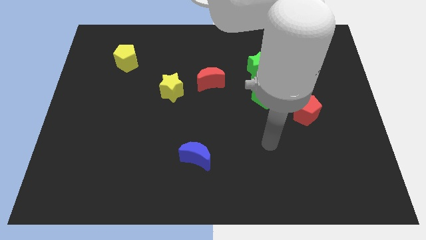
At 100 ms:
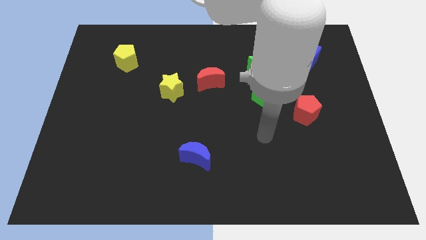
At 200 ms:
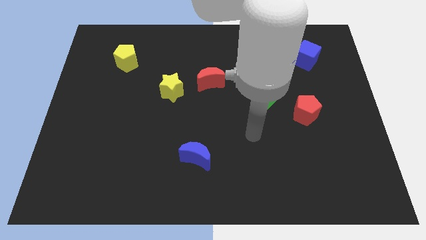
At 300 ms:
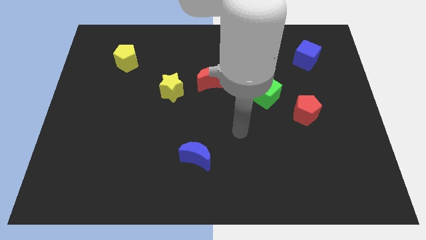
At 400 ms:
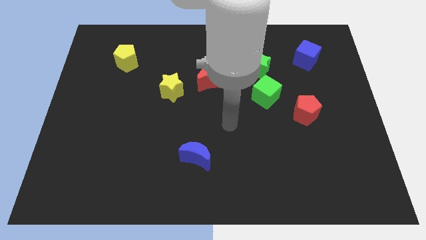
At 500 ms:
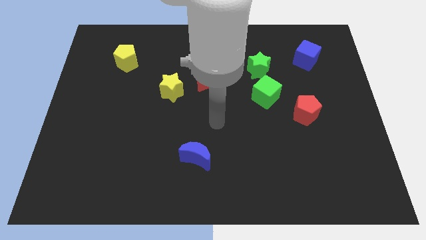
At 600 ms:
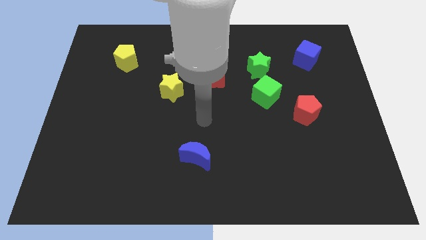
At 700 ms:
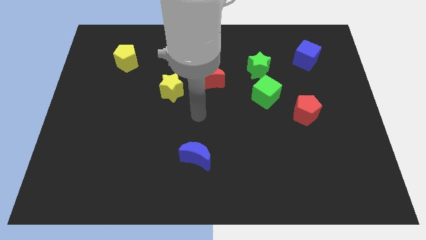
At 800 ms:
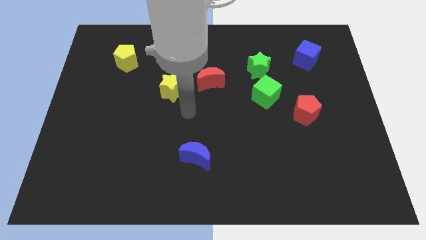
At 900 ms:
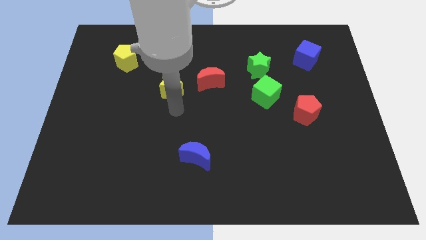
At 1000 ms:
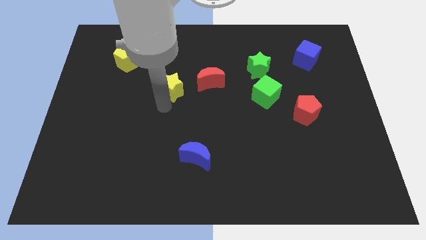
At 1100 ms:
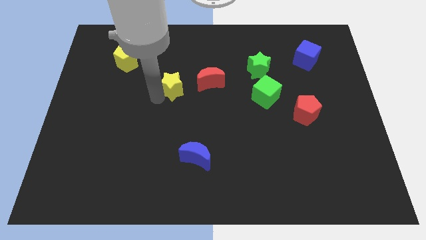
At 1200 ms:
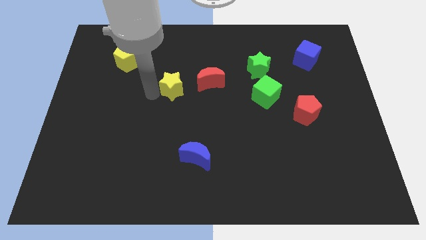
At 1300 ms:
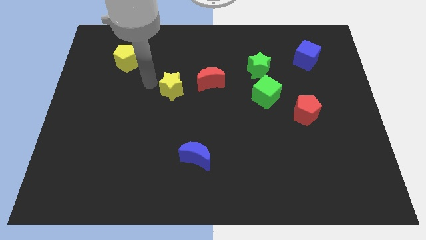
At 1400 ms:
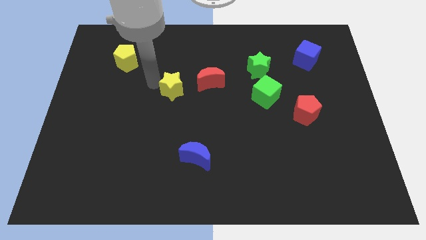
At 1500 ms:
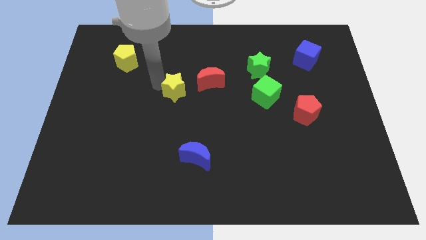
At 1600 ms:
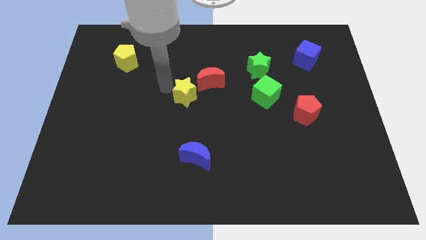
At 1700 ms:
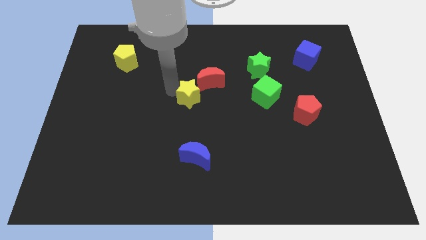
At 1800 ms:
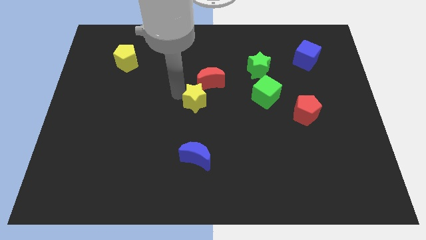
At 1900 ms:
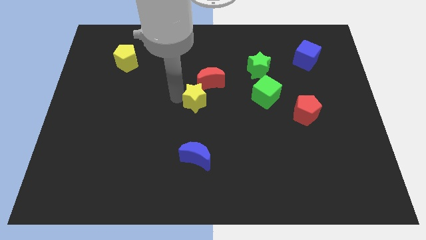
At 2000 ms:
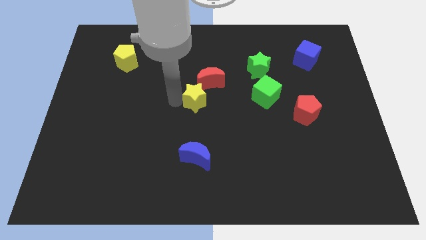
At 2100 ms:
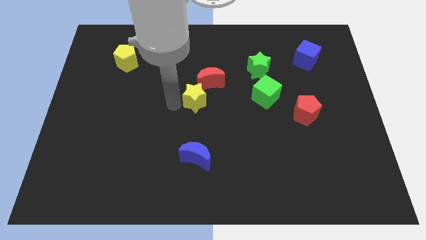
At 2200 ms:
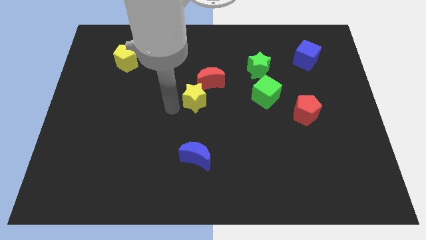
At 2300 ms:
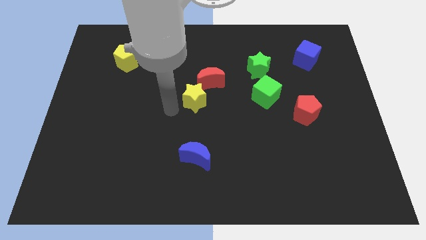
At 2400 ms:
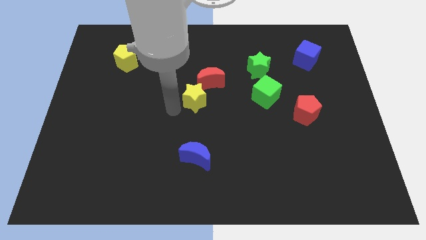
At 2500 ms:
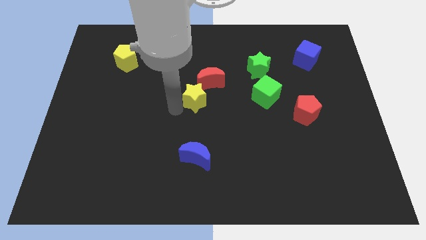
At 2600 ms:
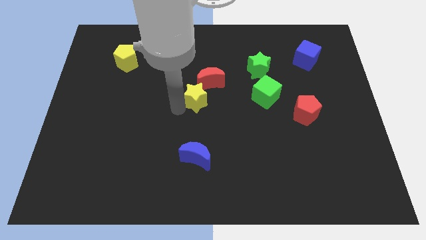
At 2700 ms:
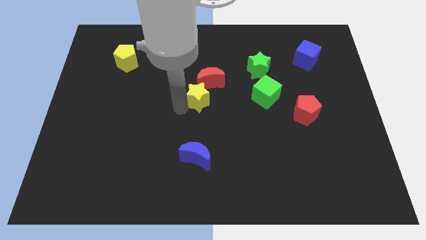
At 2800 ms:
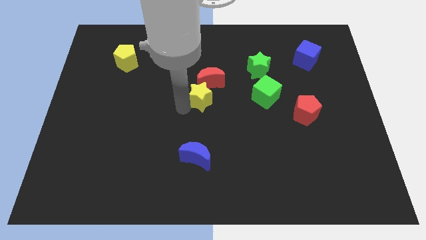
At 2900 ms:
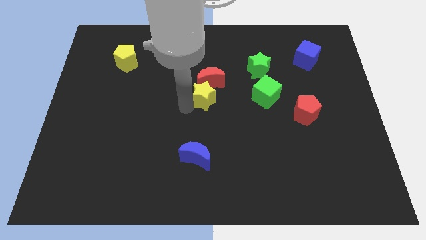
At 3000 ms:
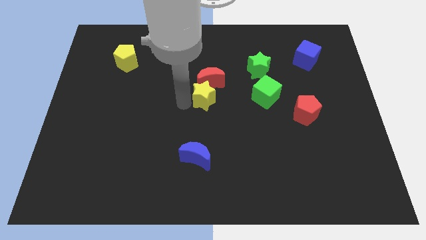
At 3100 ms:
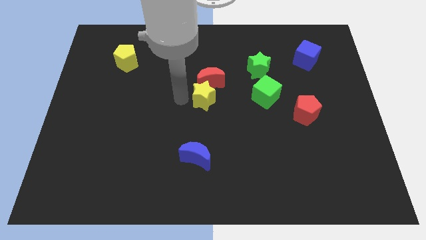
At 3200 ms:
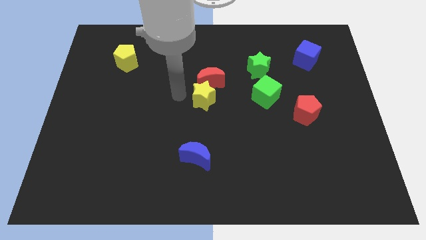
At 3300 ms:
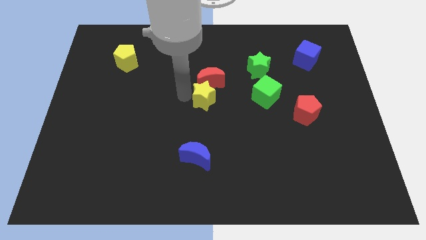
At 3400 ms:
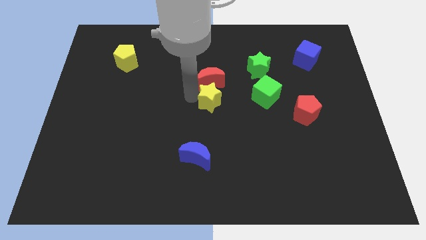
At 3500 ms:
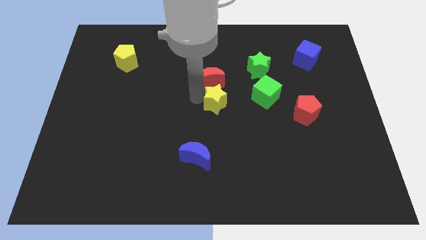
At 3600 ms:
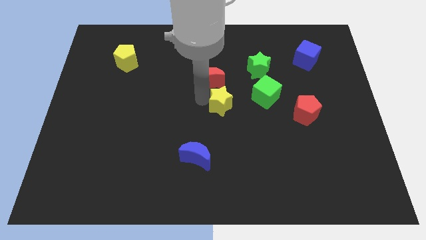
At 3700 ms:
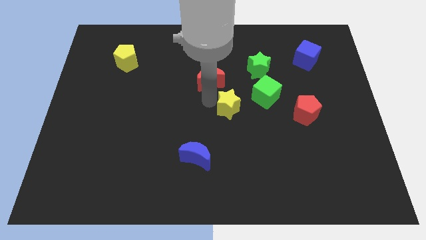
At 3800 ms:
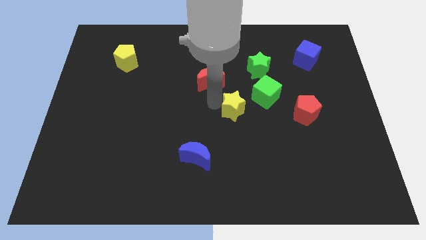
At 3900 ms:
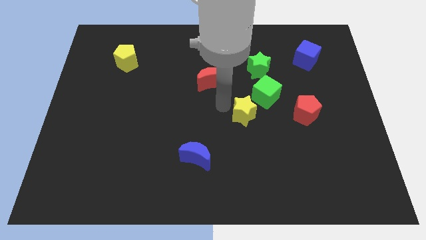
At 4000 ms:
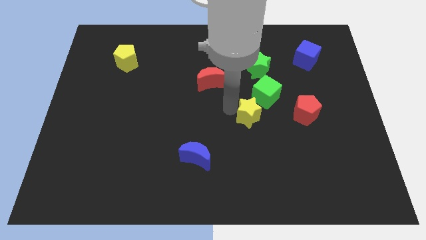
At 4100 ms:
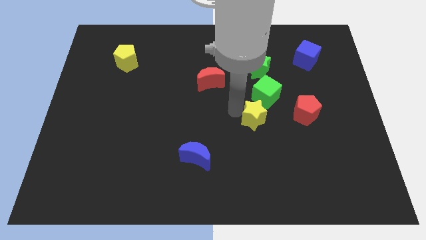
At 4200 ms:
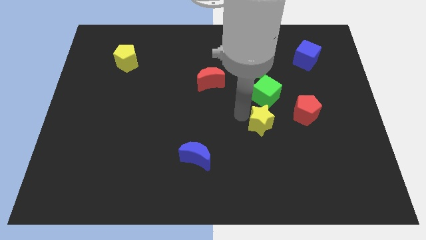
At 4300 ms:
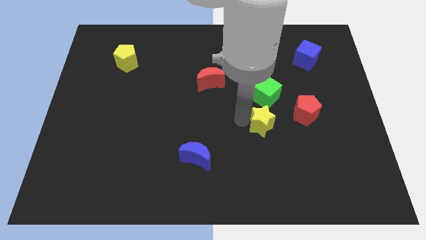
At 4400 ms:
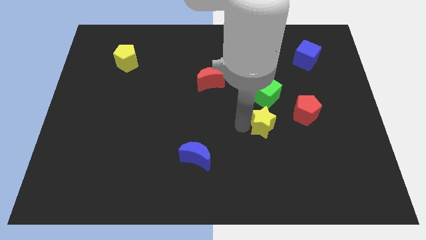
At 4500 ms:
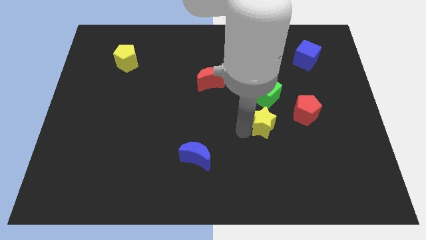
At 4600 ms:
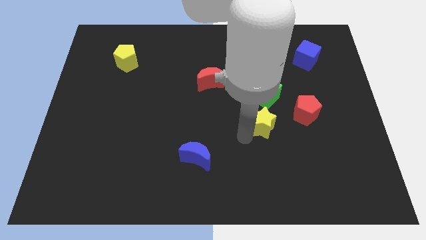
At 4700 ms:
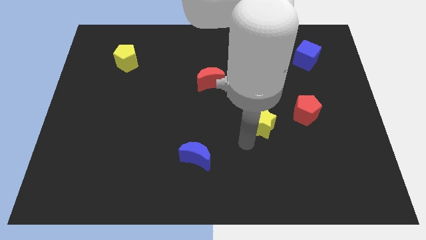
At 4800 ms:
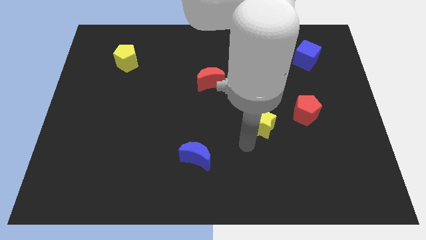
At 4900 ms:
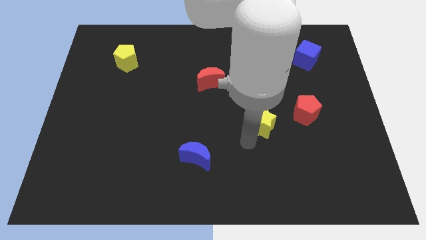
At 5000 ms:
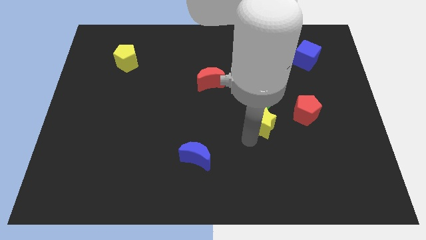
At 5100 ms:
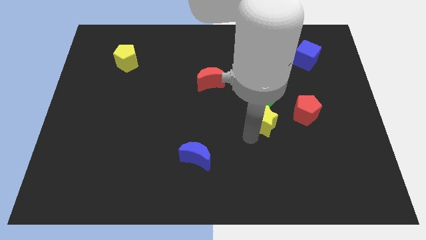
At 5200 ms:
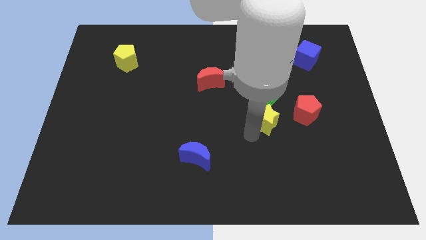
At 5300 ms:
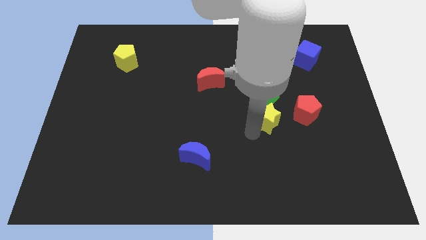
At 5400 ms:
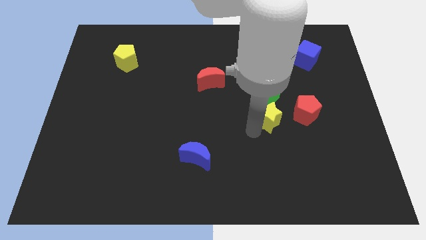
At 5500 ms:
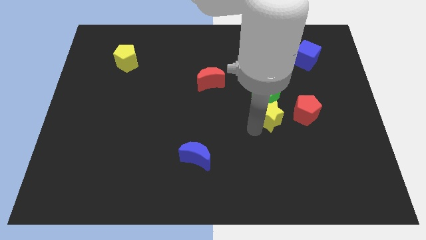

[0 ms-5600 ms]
slide the yellow star right

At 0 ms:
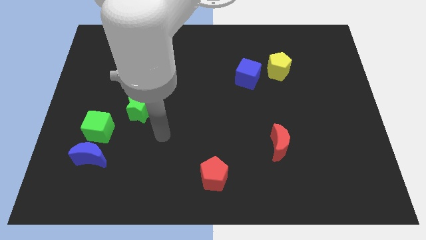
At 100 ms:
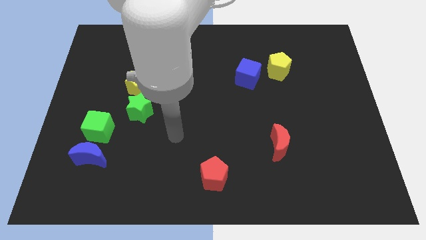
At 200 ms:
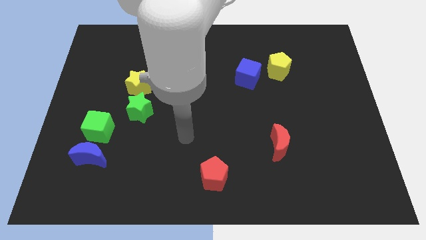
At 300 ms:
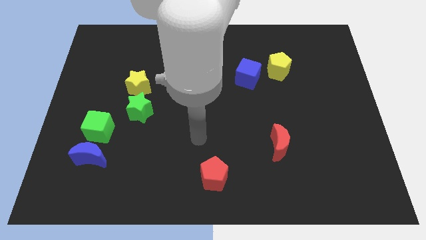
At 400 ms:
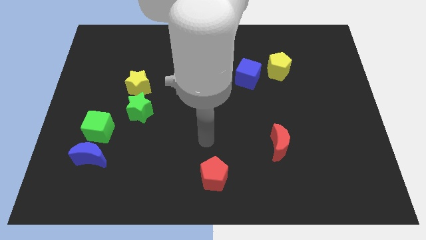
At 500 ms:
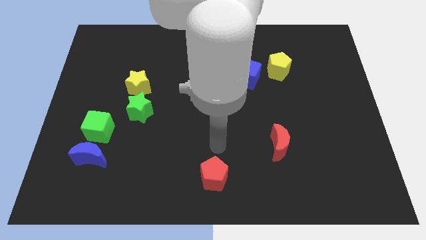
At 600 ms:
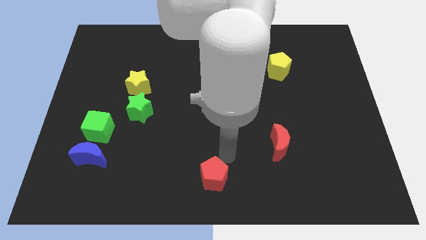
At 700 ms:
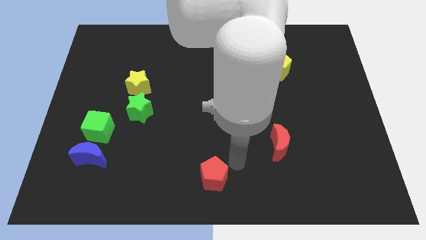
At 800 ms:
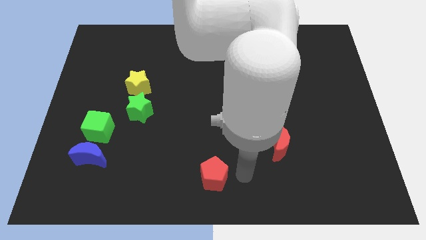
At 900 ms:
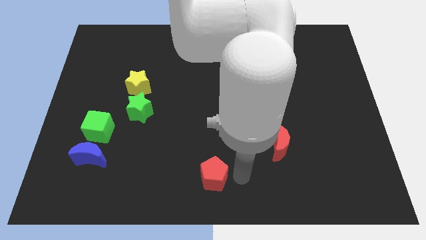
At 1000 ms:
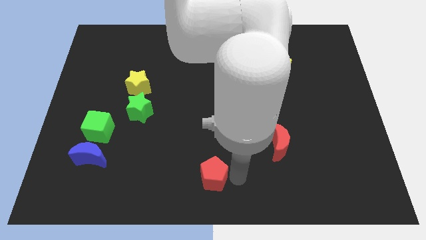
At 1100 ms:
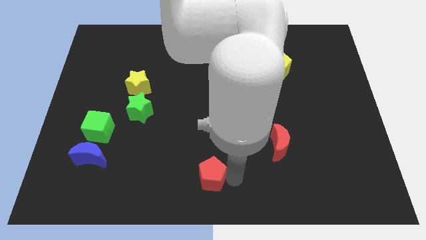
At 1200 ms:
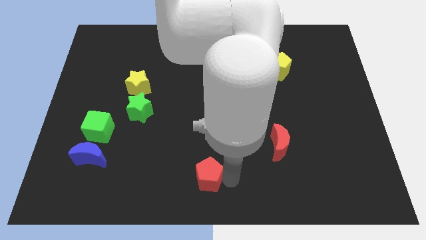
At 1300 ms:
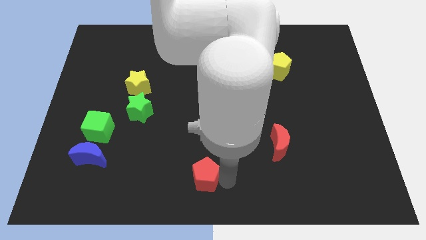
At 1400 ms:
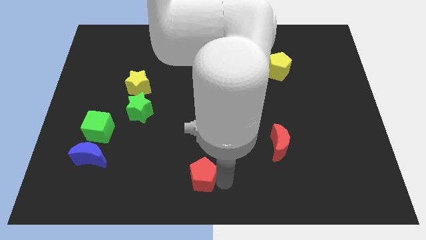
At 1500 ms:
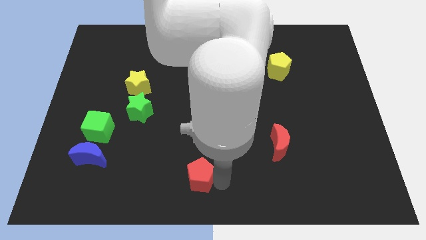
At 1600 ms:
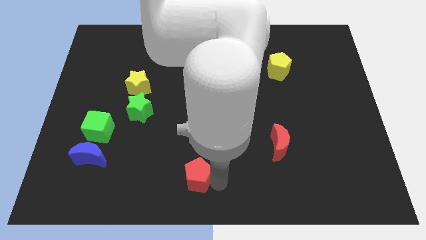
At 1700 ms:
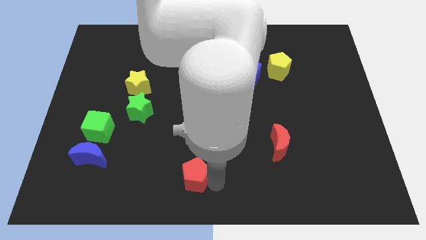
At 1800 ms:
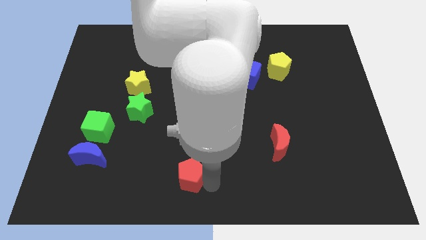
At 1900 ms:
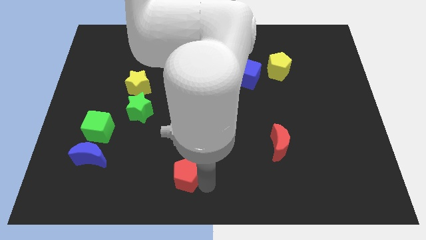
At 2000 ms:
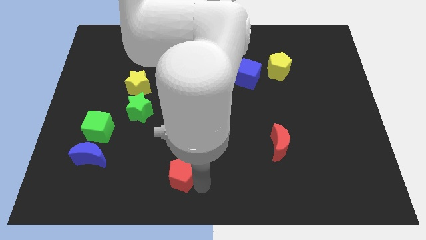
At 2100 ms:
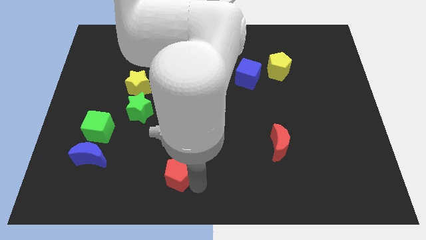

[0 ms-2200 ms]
push the red pentagon to the left somewhat

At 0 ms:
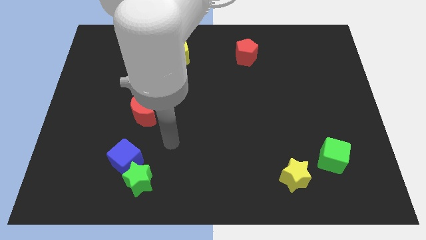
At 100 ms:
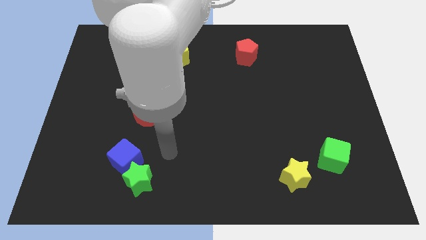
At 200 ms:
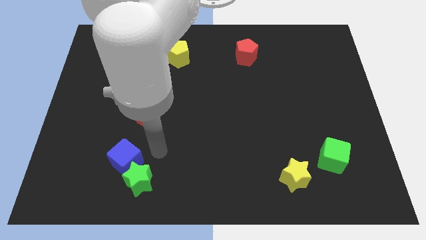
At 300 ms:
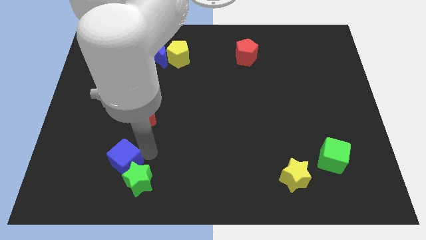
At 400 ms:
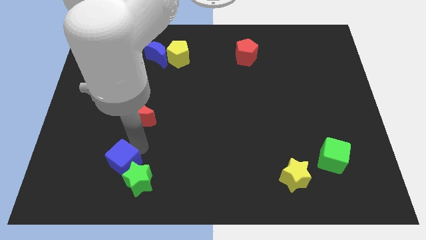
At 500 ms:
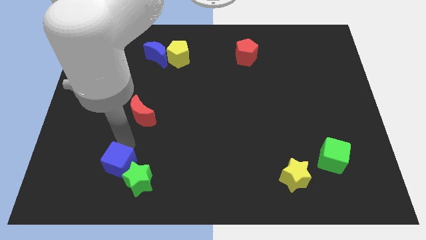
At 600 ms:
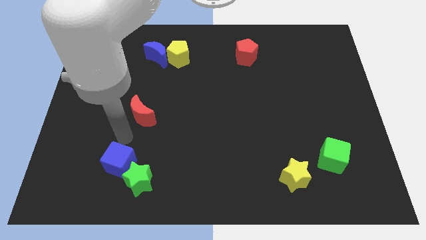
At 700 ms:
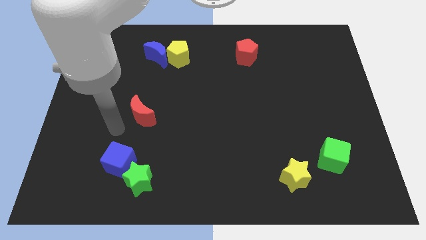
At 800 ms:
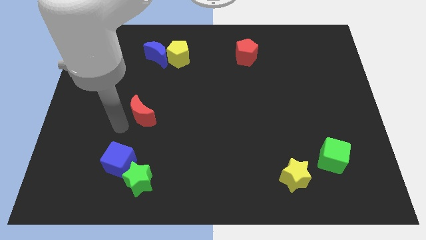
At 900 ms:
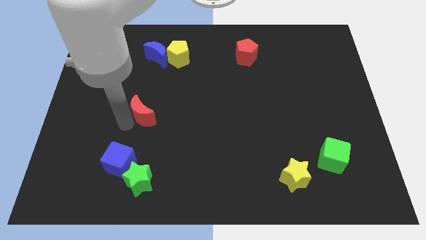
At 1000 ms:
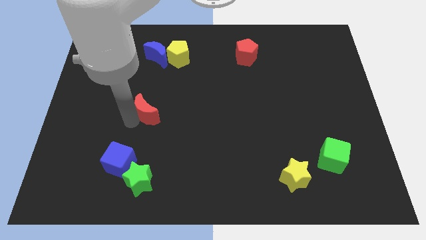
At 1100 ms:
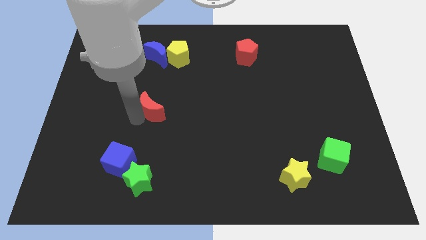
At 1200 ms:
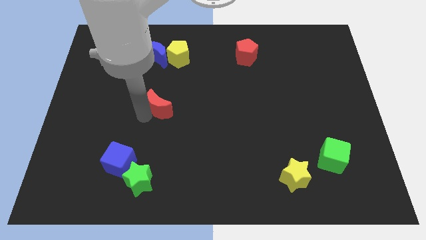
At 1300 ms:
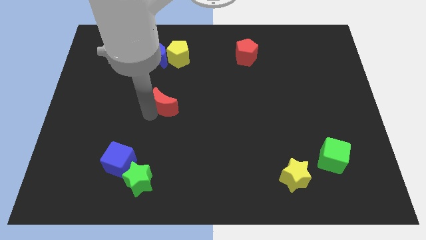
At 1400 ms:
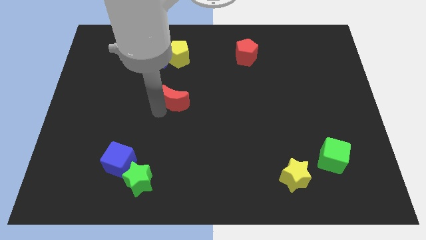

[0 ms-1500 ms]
slightly move the red moon upwards and then right
